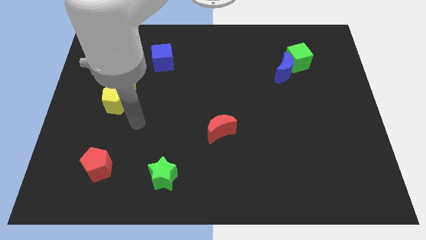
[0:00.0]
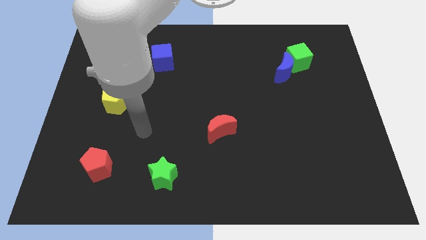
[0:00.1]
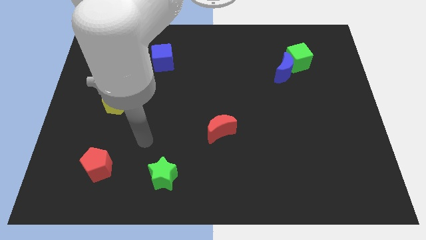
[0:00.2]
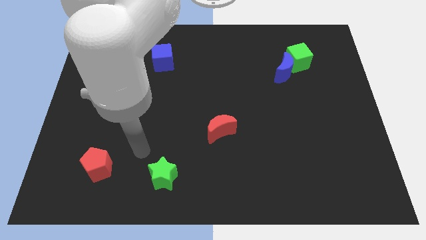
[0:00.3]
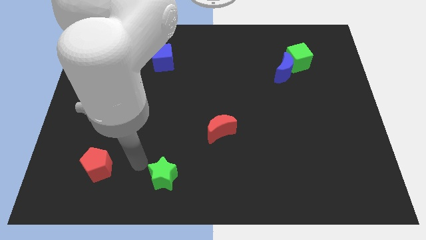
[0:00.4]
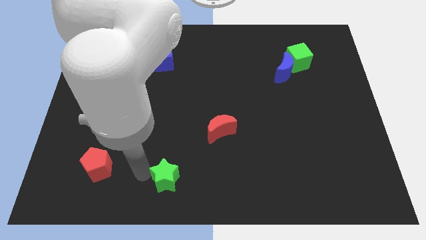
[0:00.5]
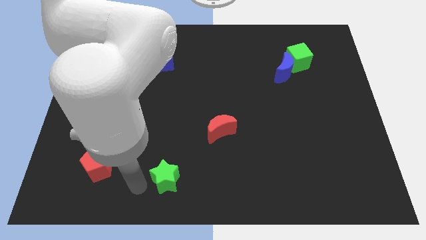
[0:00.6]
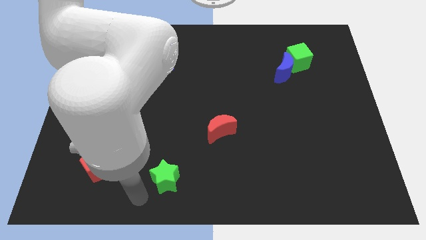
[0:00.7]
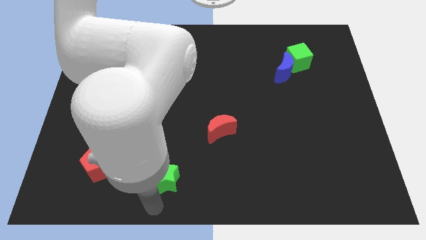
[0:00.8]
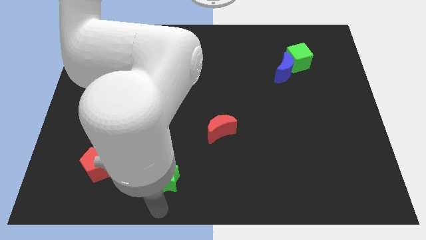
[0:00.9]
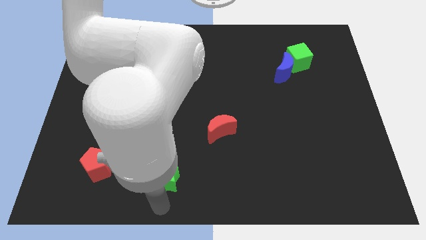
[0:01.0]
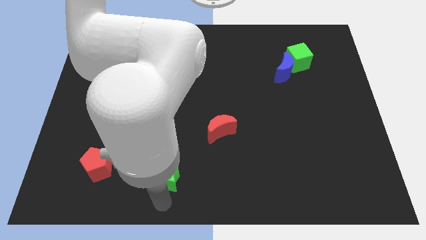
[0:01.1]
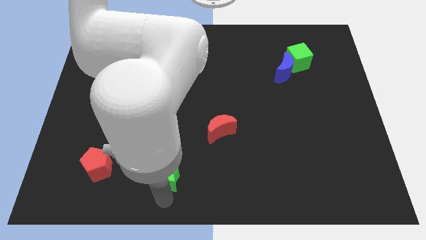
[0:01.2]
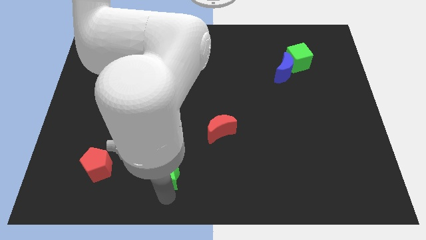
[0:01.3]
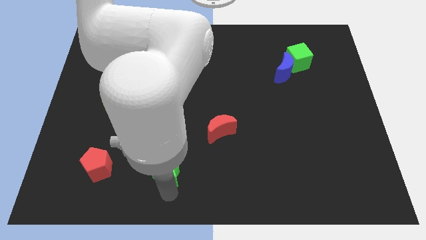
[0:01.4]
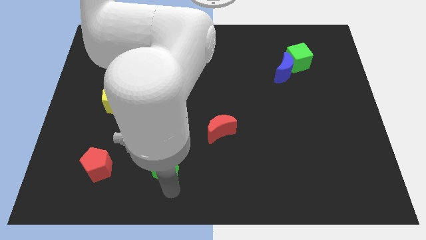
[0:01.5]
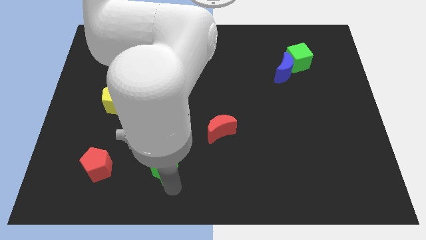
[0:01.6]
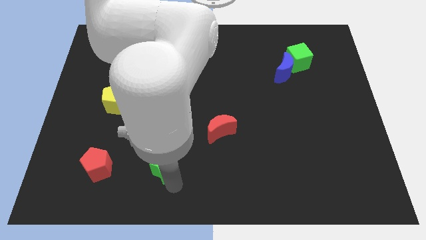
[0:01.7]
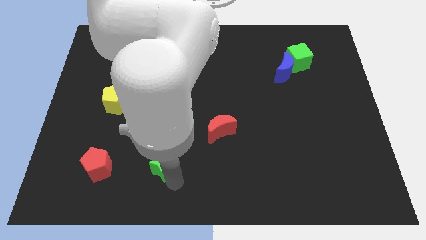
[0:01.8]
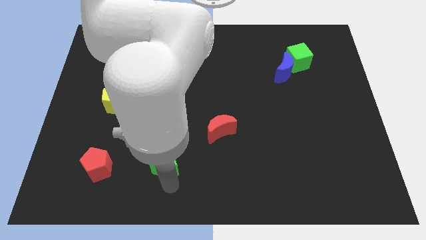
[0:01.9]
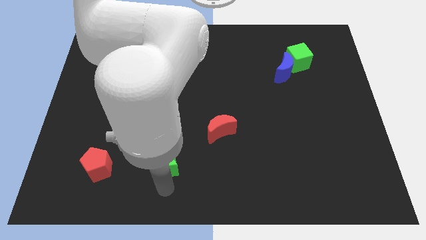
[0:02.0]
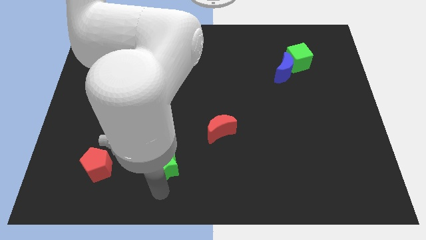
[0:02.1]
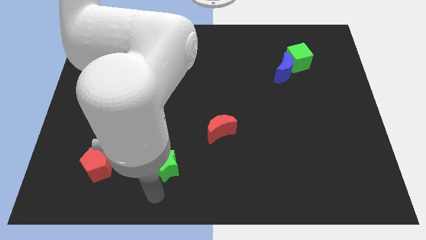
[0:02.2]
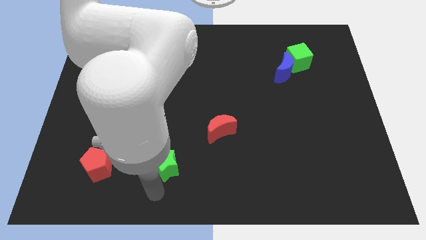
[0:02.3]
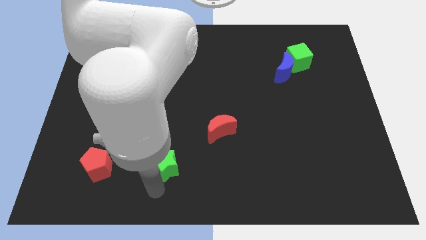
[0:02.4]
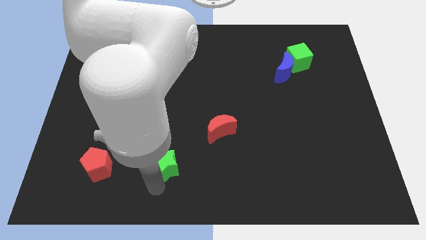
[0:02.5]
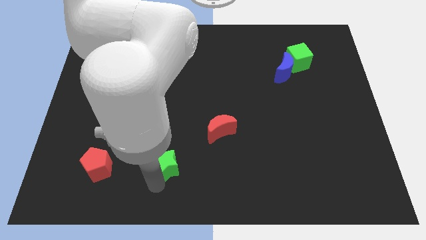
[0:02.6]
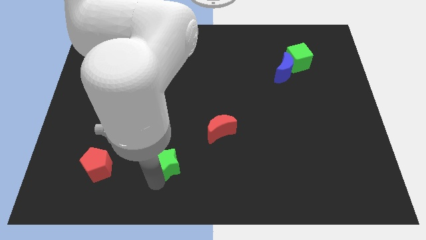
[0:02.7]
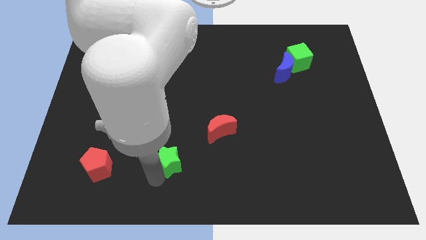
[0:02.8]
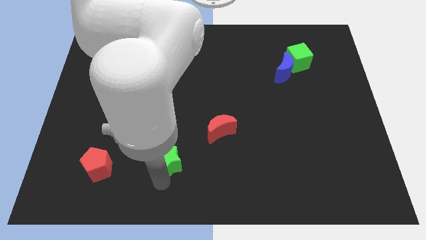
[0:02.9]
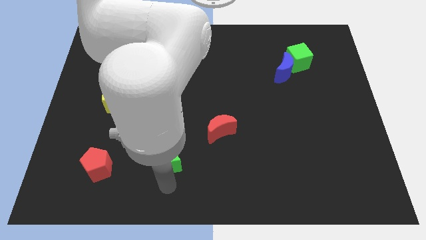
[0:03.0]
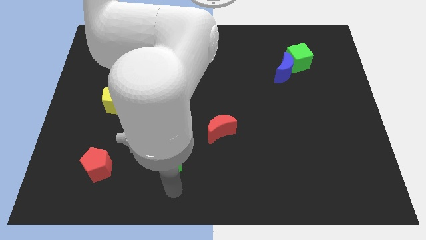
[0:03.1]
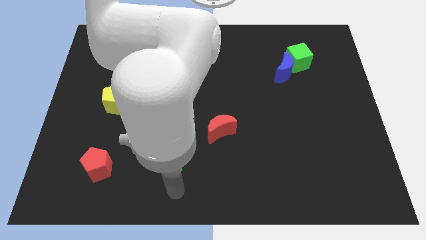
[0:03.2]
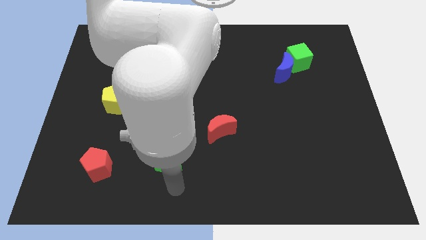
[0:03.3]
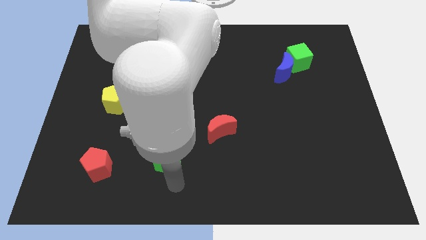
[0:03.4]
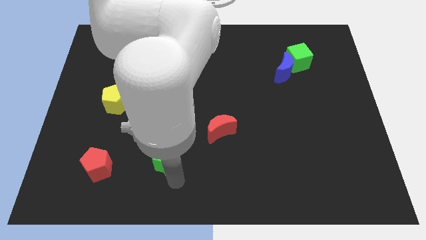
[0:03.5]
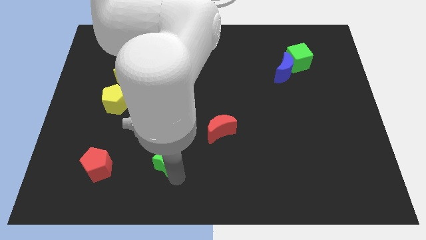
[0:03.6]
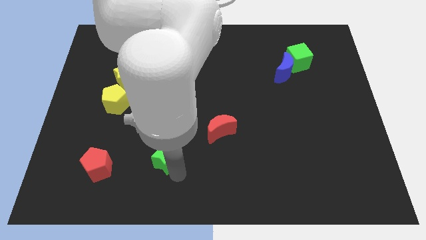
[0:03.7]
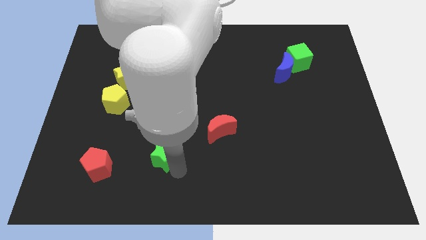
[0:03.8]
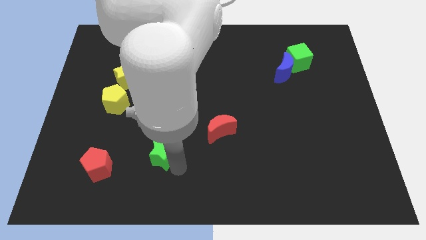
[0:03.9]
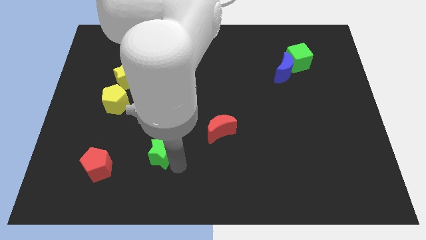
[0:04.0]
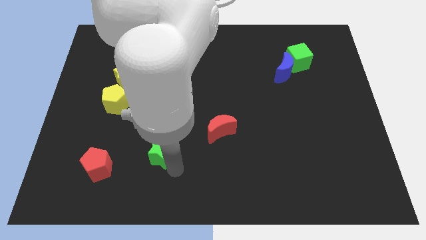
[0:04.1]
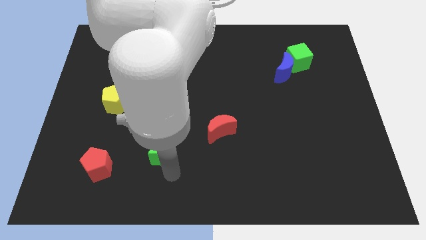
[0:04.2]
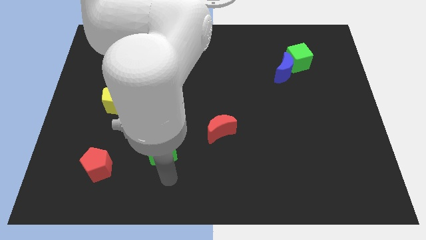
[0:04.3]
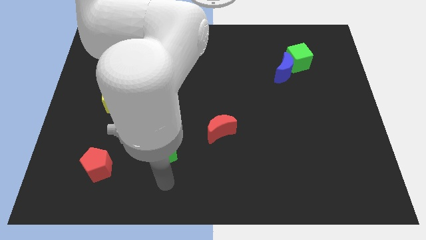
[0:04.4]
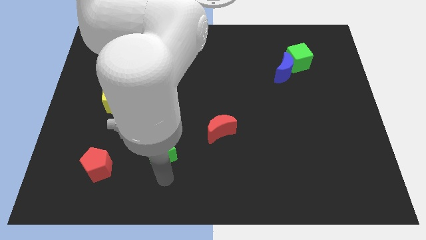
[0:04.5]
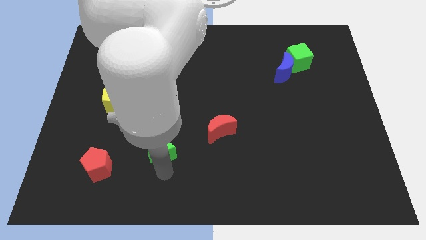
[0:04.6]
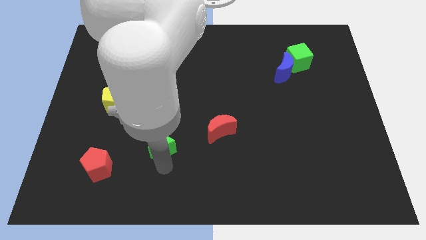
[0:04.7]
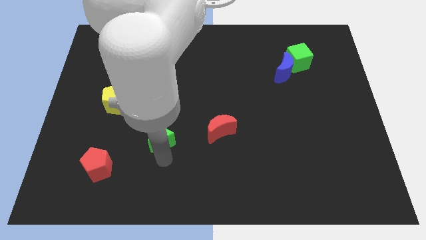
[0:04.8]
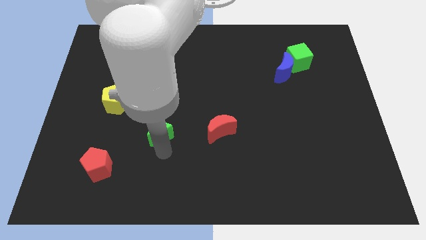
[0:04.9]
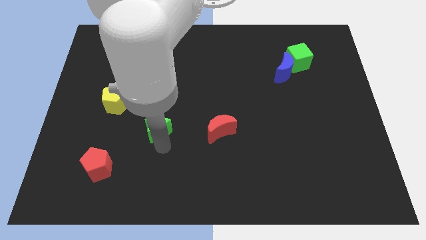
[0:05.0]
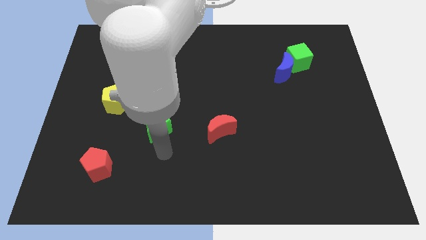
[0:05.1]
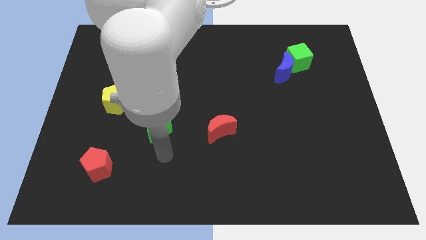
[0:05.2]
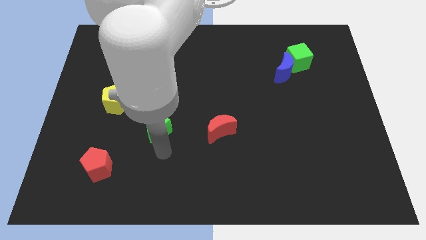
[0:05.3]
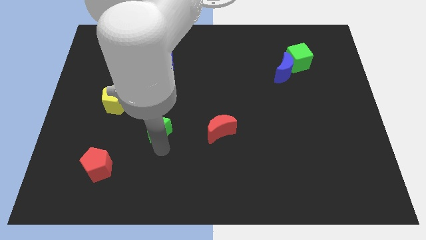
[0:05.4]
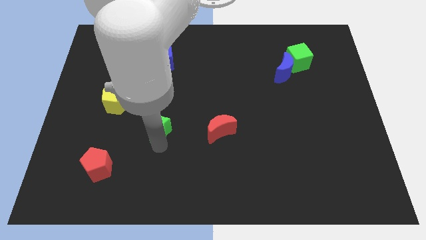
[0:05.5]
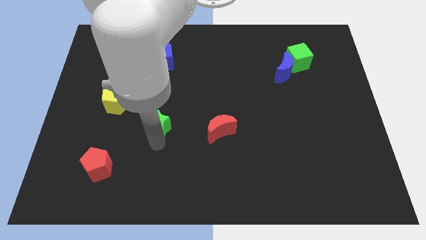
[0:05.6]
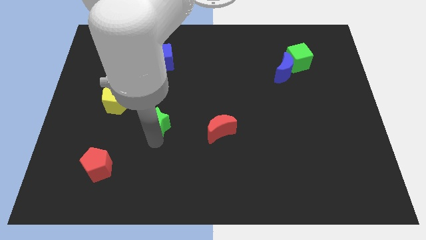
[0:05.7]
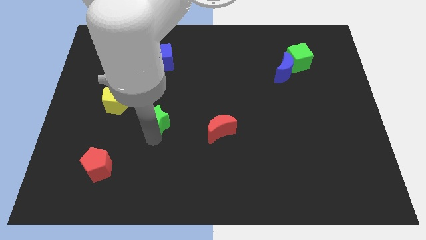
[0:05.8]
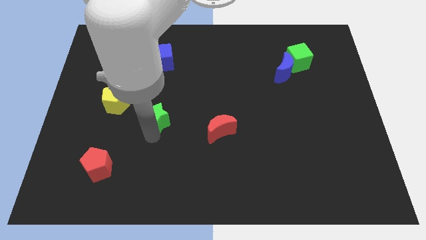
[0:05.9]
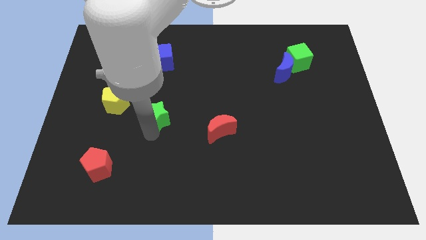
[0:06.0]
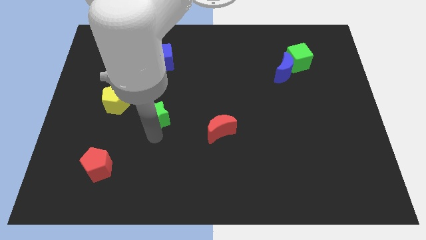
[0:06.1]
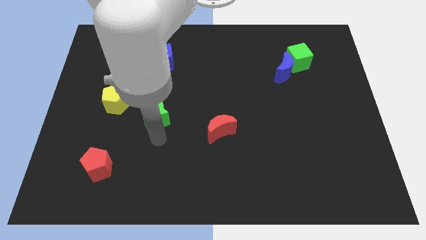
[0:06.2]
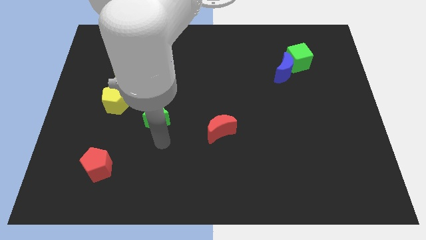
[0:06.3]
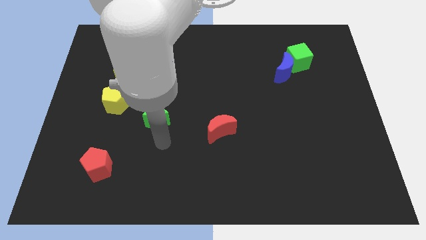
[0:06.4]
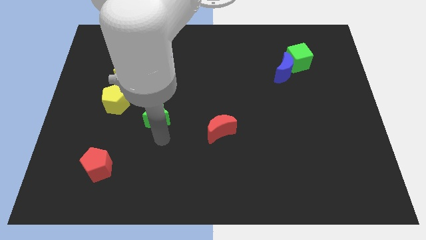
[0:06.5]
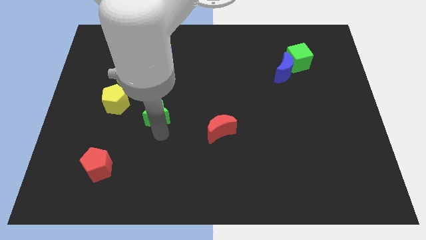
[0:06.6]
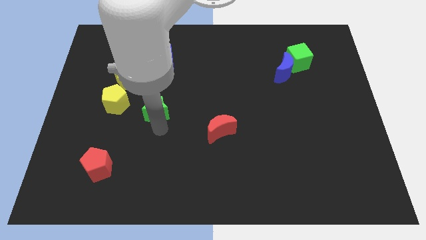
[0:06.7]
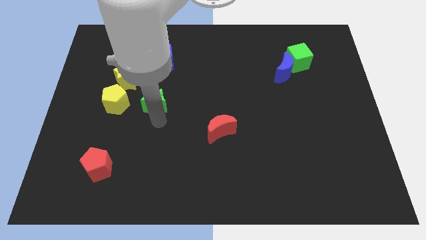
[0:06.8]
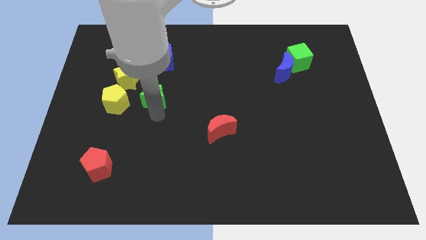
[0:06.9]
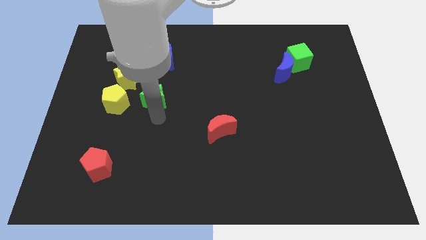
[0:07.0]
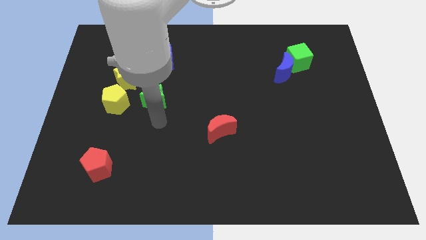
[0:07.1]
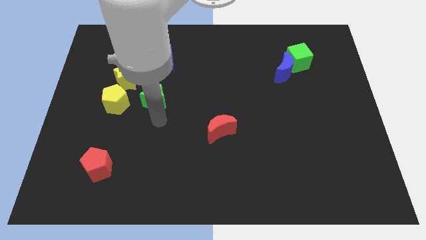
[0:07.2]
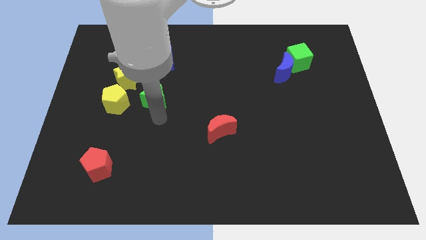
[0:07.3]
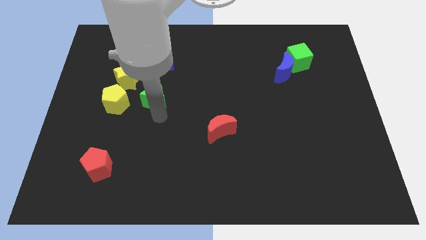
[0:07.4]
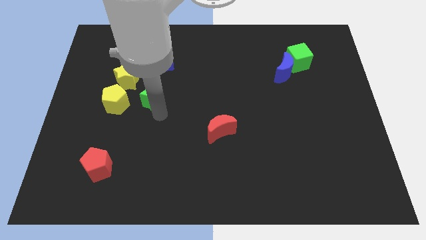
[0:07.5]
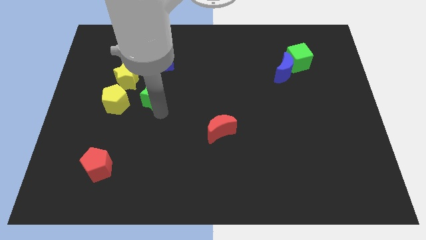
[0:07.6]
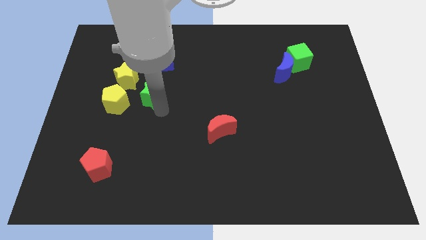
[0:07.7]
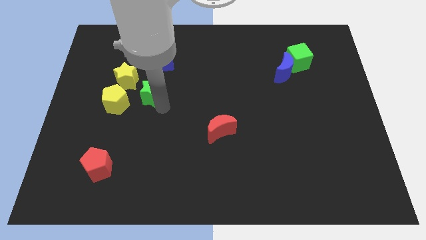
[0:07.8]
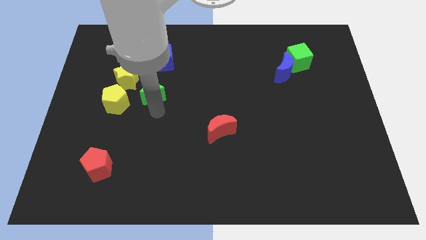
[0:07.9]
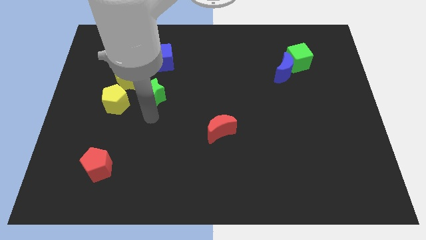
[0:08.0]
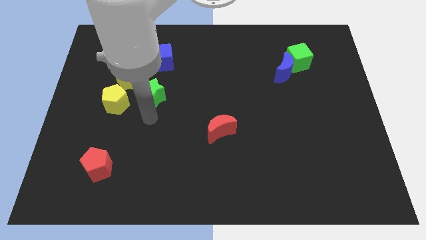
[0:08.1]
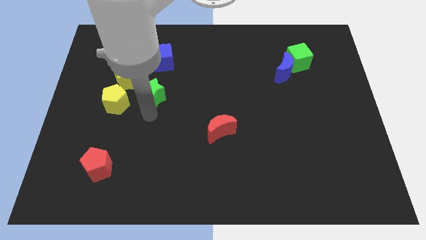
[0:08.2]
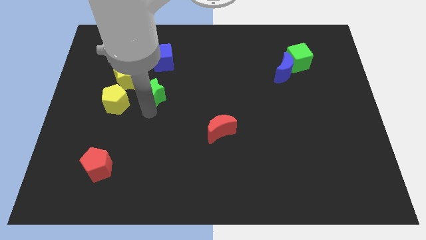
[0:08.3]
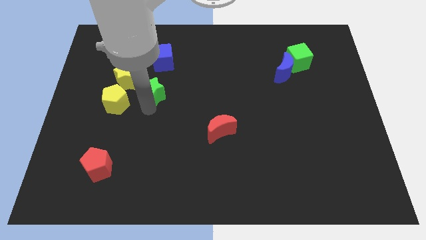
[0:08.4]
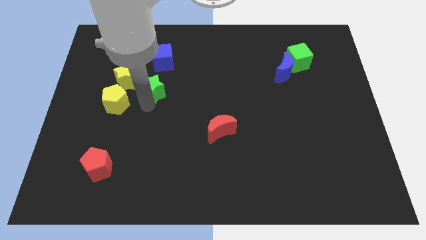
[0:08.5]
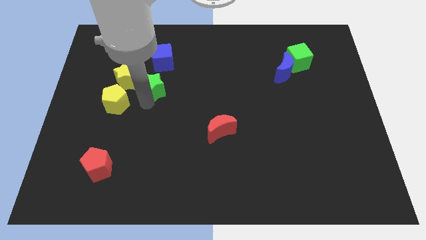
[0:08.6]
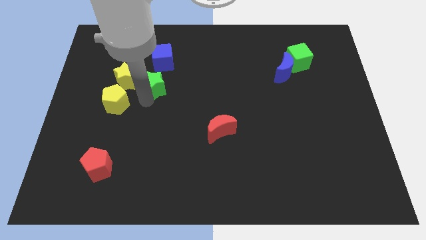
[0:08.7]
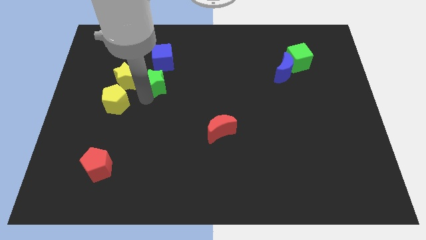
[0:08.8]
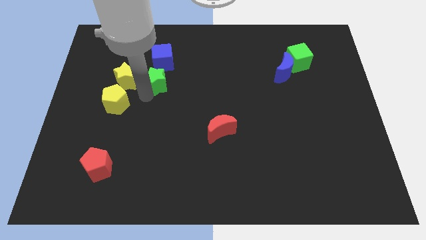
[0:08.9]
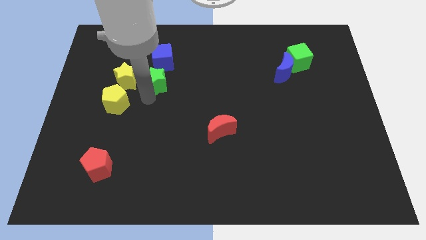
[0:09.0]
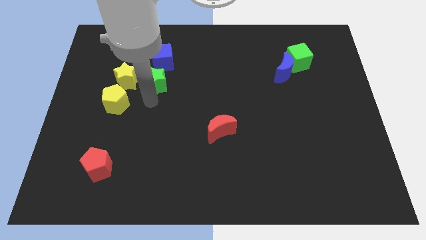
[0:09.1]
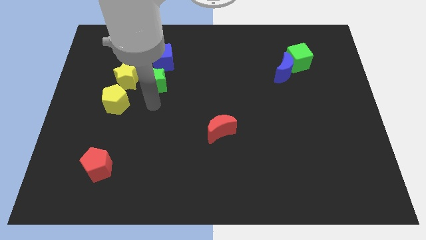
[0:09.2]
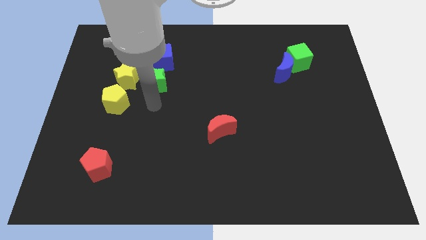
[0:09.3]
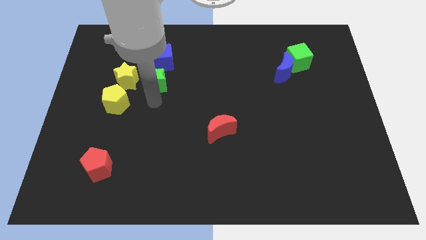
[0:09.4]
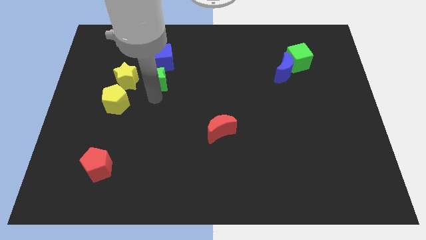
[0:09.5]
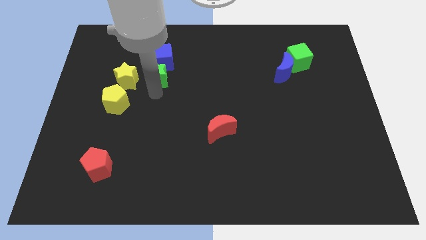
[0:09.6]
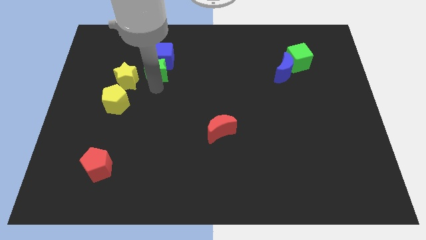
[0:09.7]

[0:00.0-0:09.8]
slide the green star towards the blue cube
